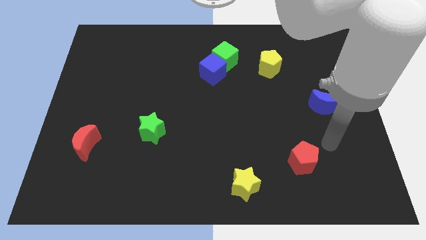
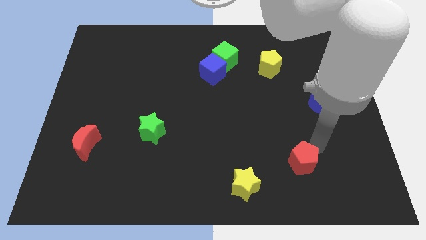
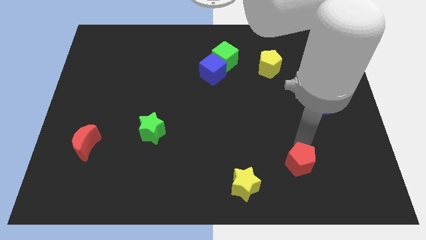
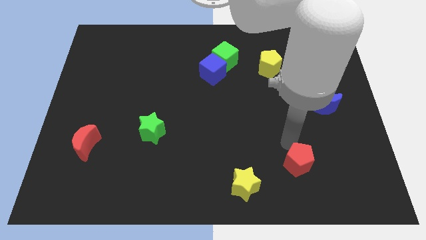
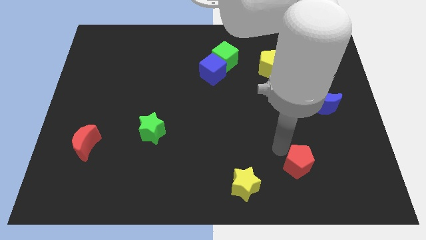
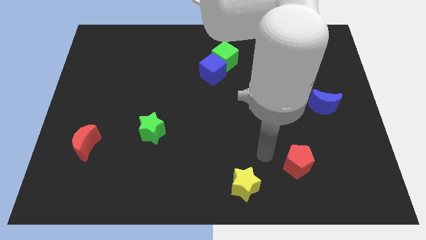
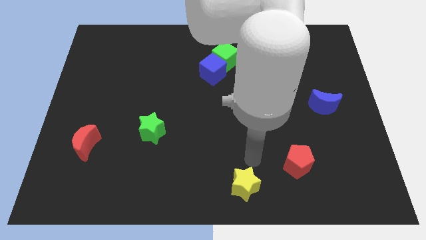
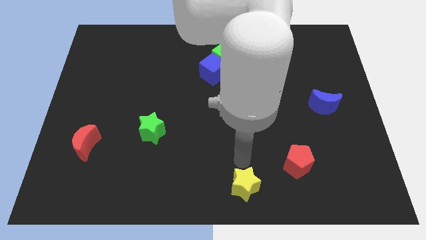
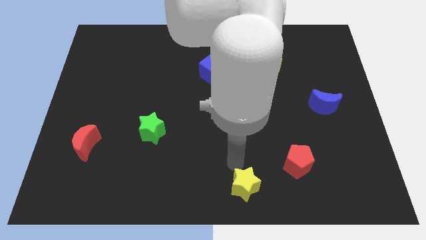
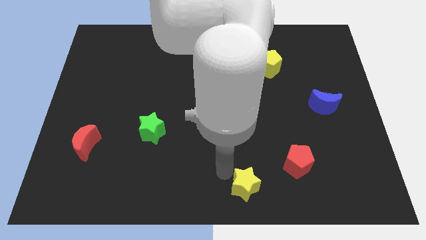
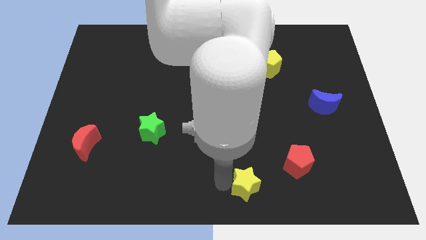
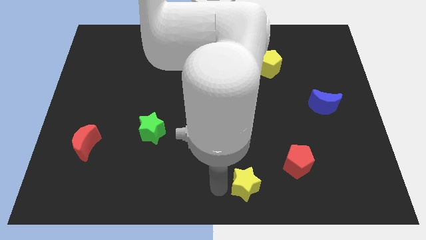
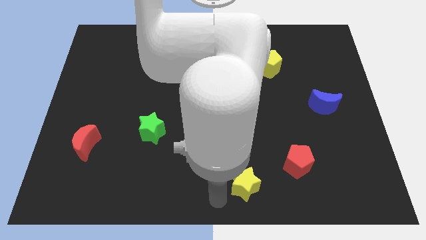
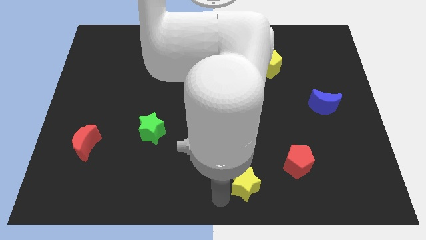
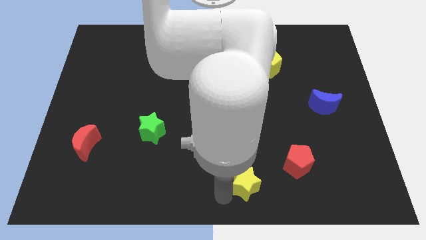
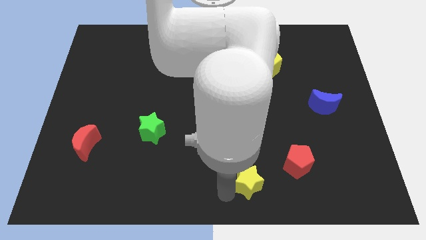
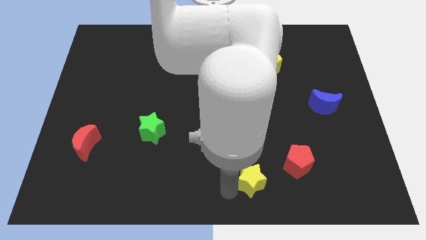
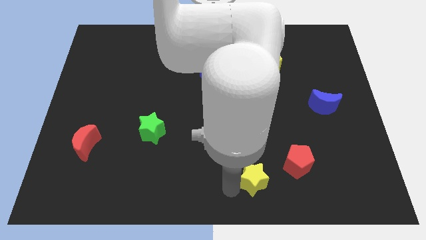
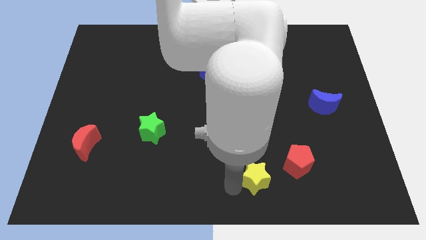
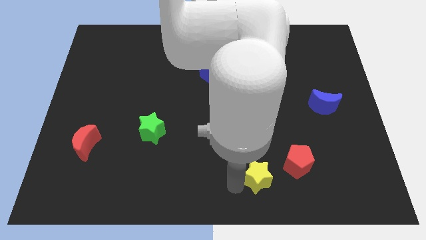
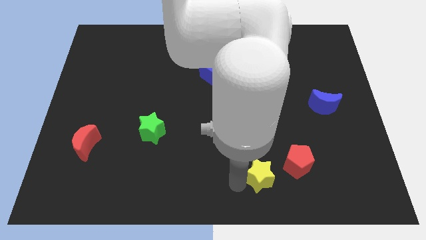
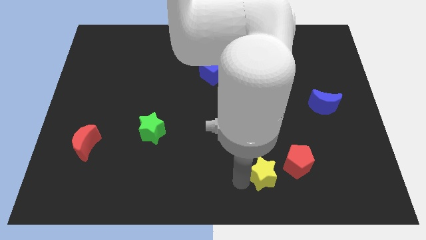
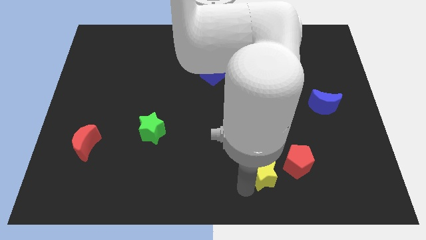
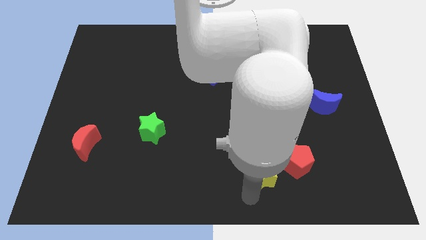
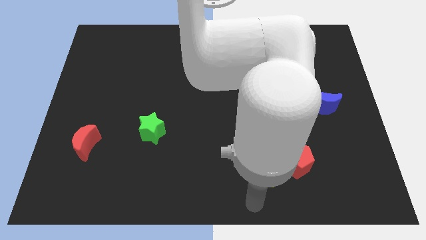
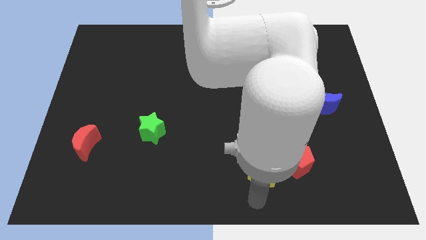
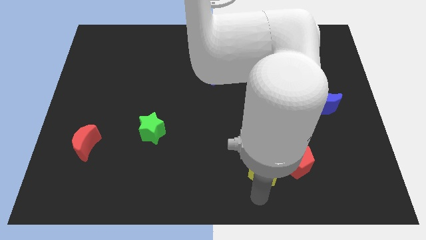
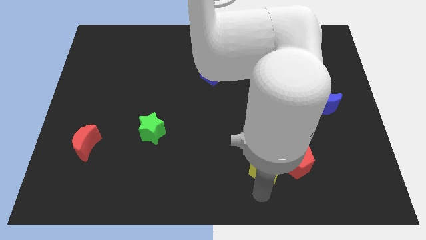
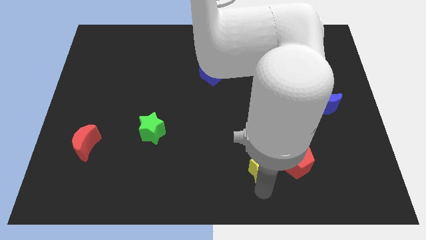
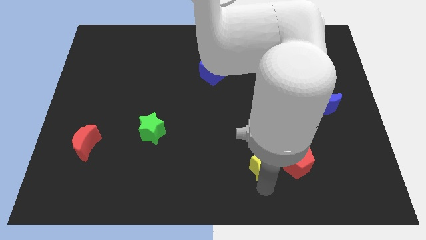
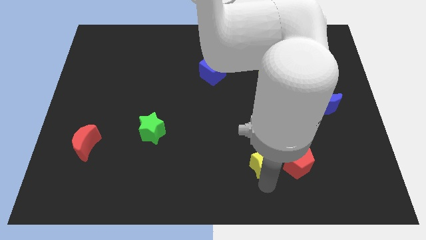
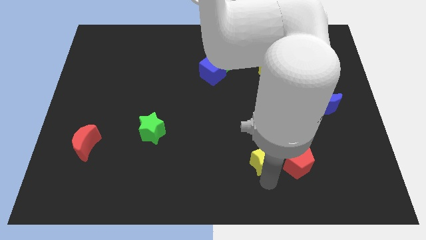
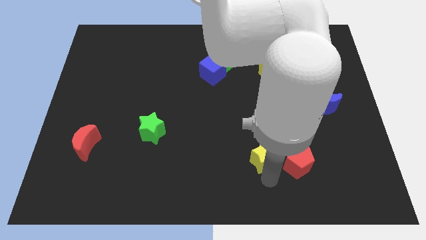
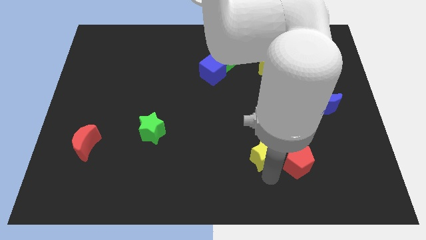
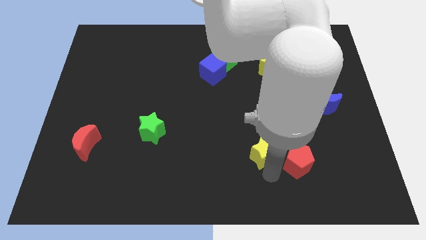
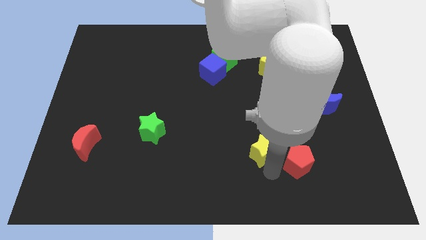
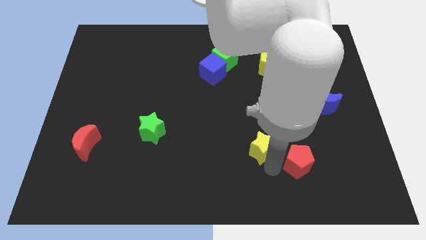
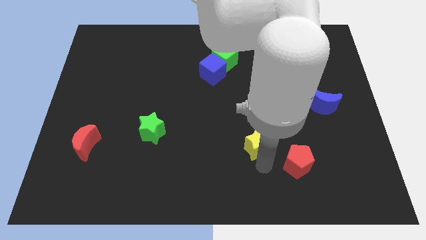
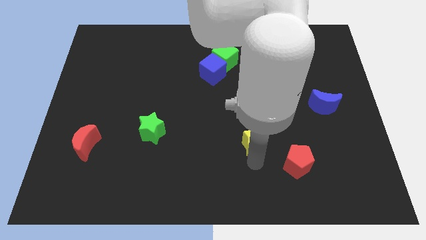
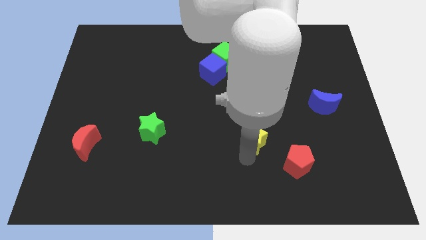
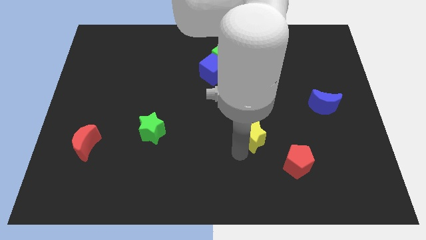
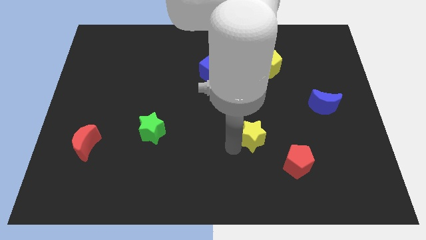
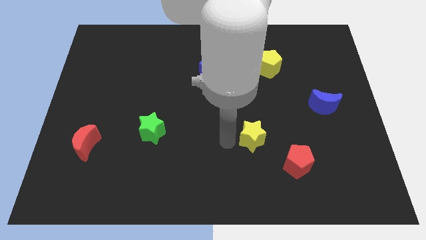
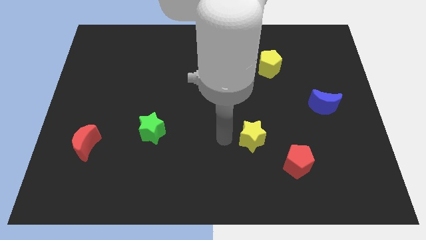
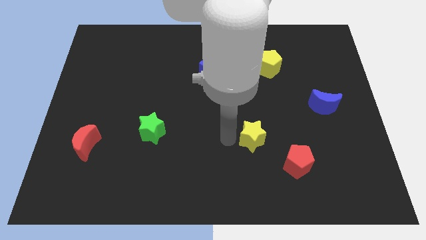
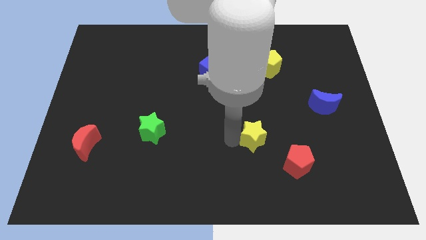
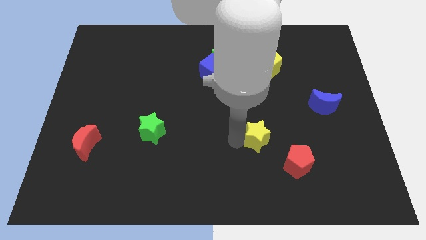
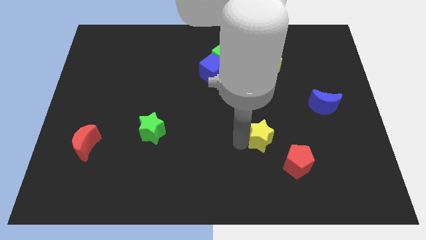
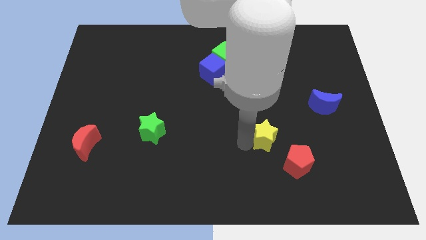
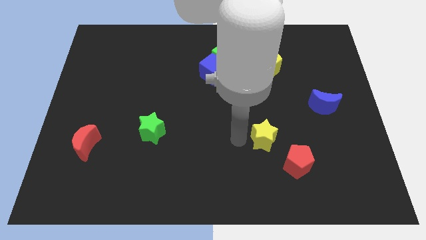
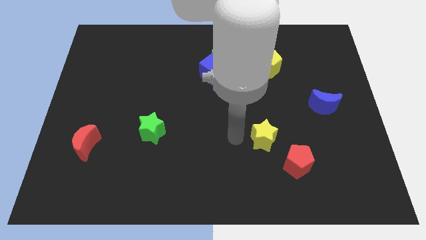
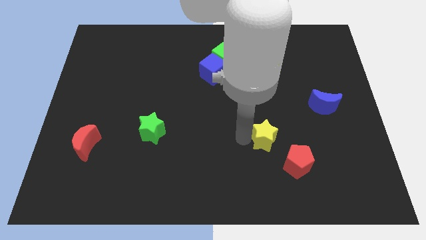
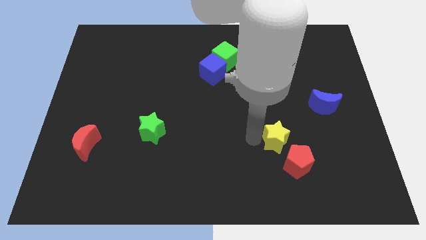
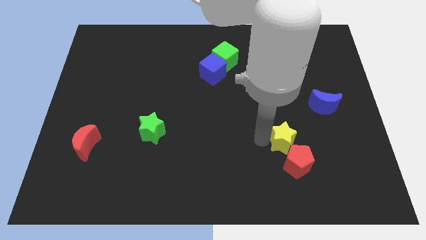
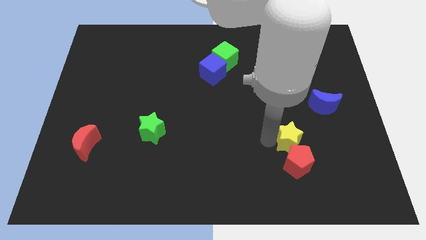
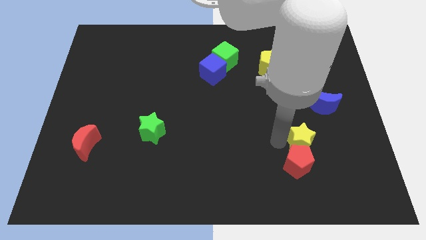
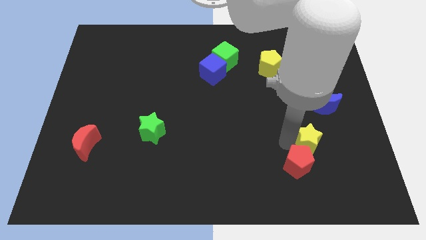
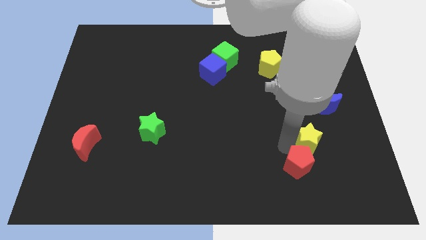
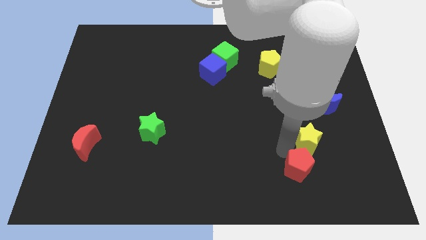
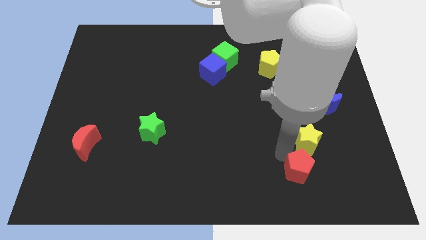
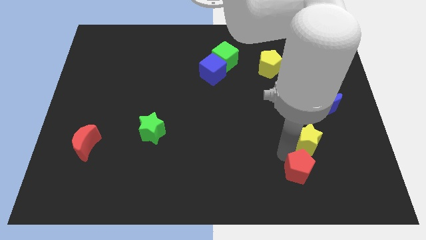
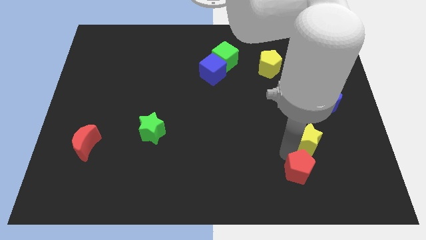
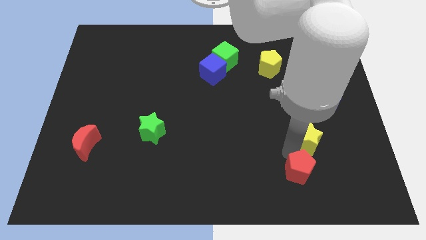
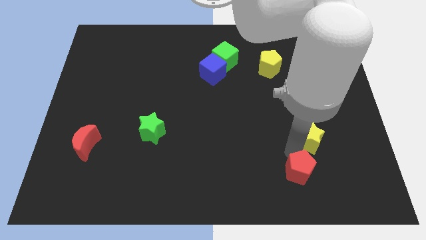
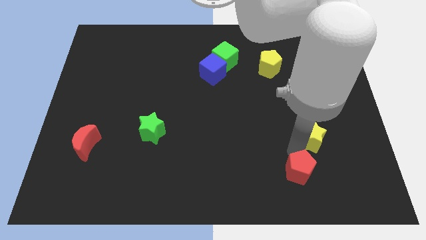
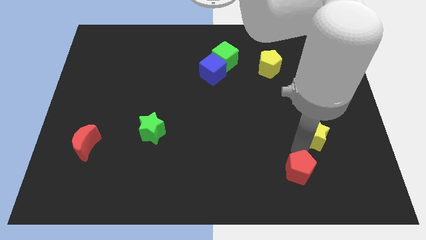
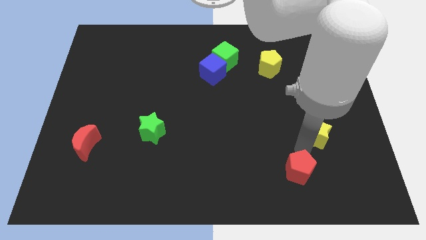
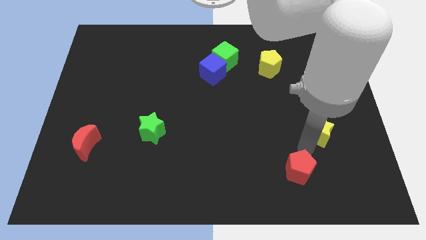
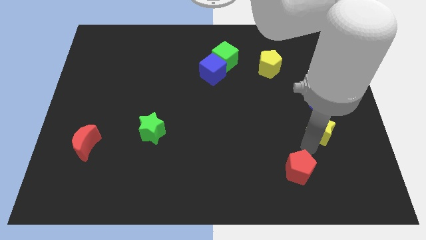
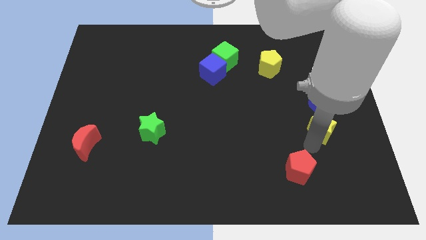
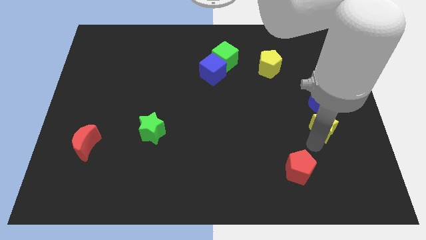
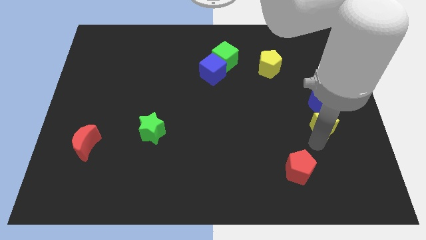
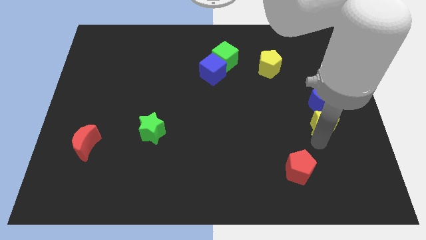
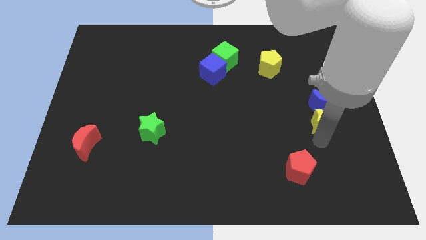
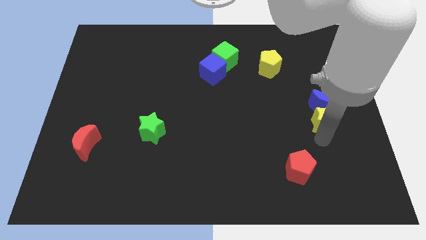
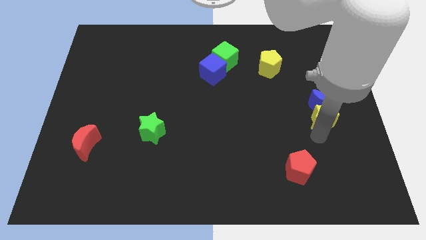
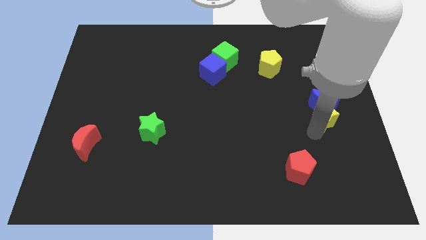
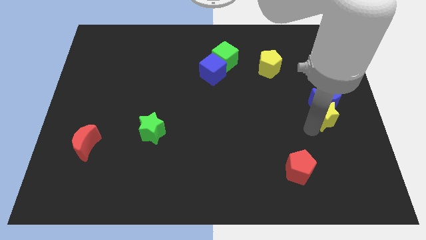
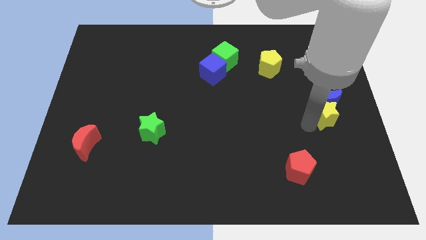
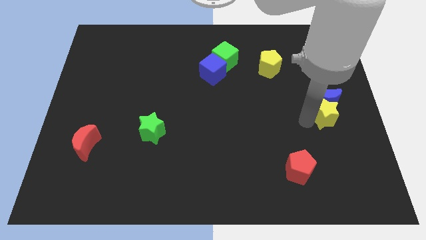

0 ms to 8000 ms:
move the yellow star to the right side of the board
